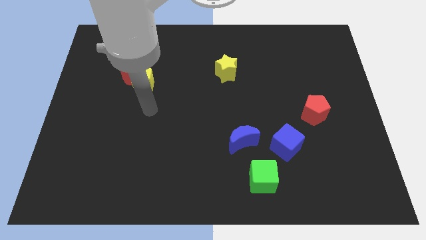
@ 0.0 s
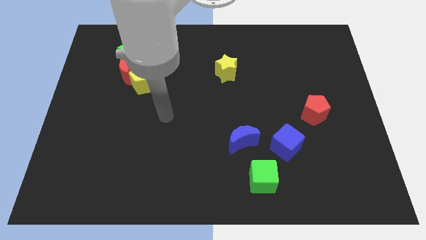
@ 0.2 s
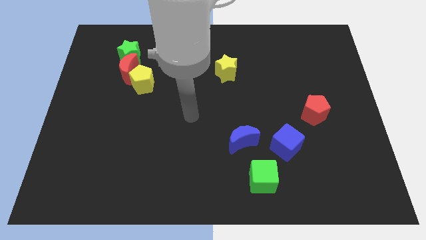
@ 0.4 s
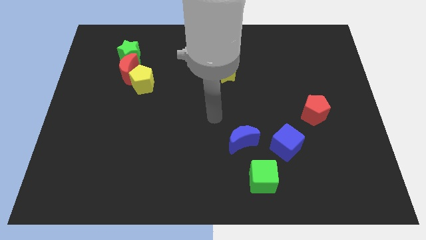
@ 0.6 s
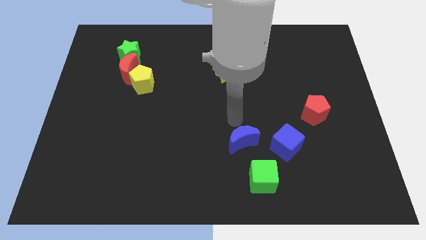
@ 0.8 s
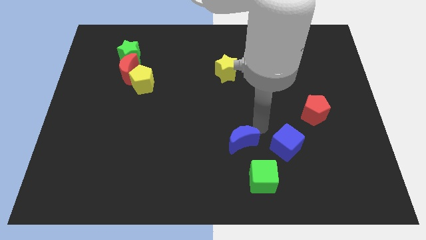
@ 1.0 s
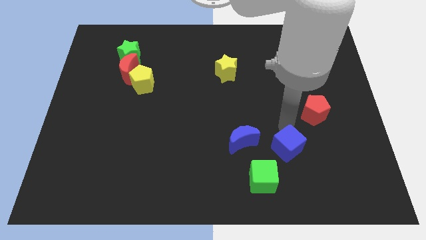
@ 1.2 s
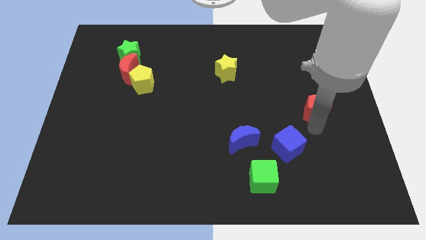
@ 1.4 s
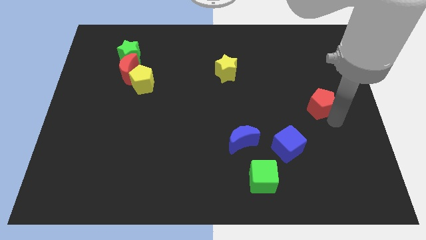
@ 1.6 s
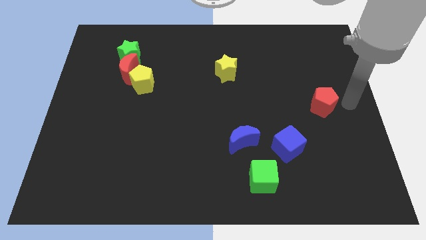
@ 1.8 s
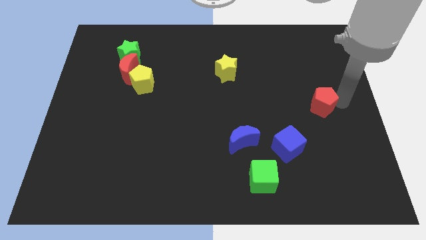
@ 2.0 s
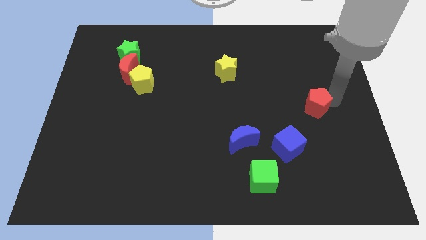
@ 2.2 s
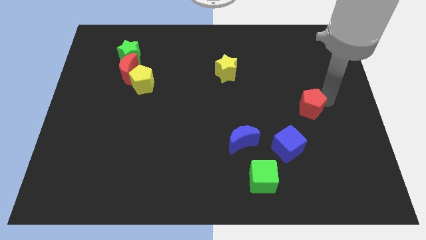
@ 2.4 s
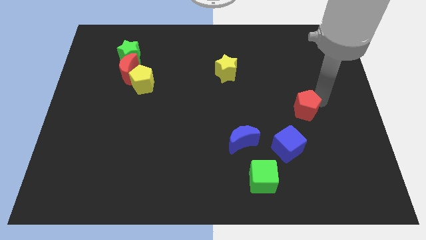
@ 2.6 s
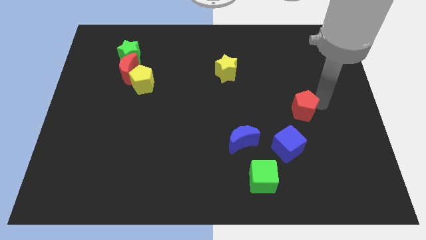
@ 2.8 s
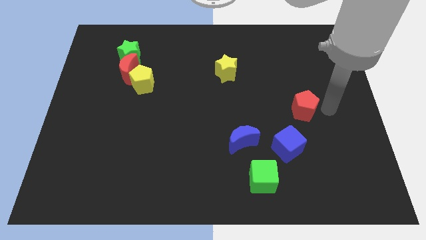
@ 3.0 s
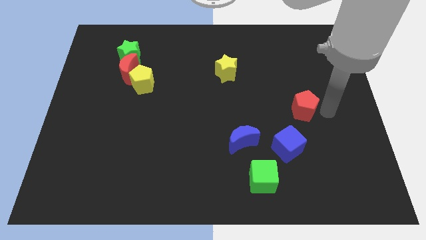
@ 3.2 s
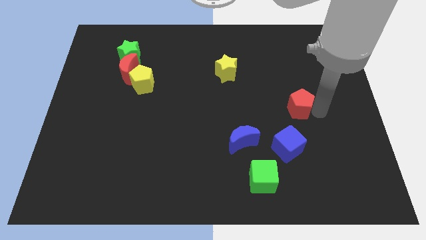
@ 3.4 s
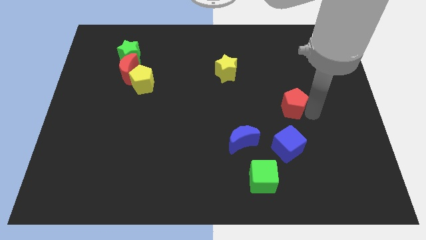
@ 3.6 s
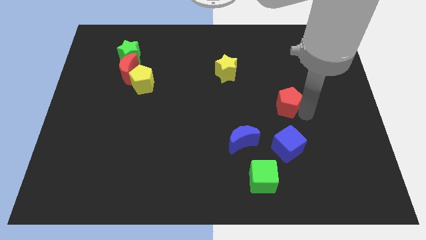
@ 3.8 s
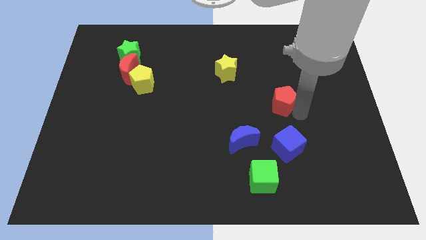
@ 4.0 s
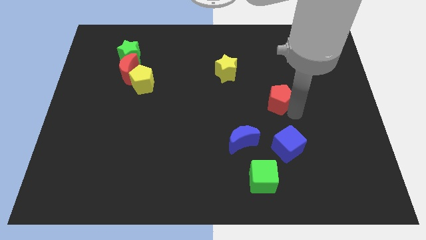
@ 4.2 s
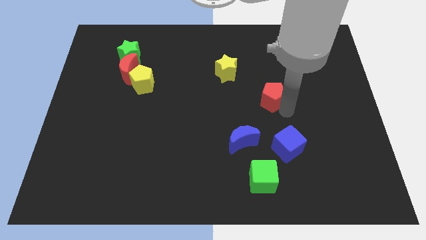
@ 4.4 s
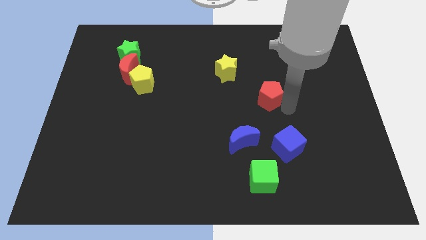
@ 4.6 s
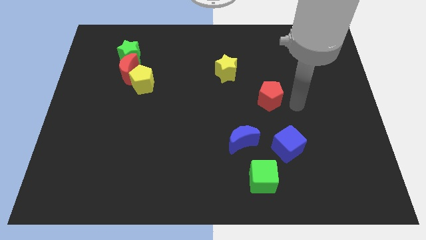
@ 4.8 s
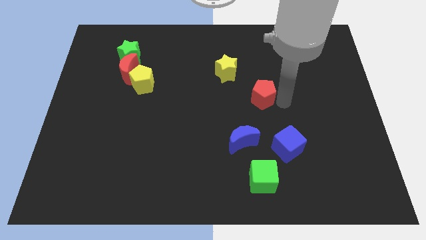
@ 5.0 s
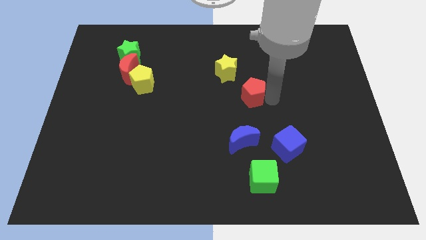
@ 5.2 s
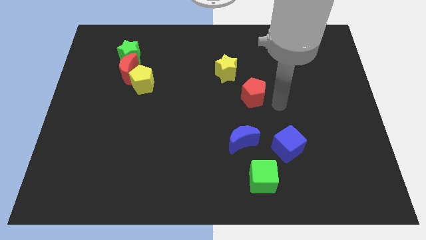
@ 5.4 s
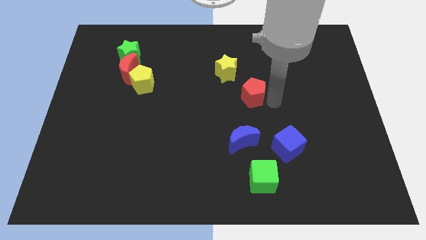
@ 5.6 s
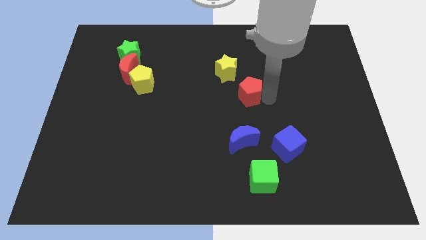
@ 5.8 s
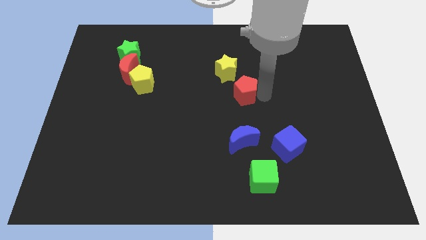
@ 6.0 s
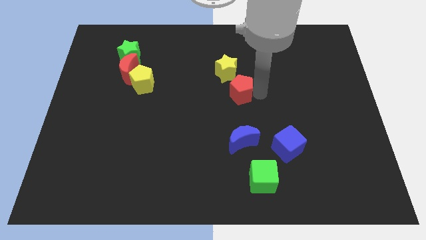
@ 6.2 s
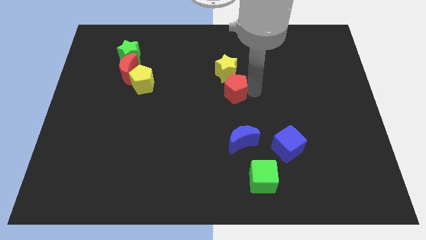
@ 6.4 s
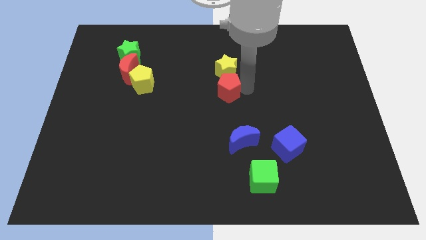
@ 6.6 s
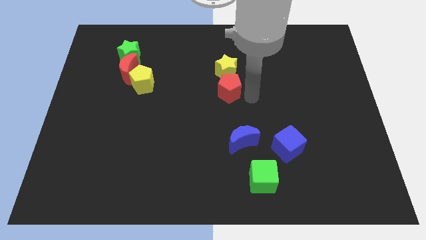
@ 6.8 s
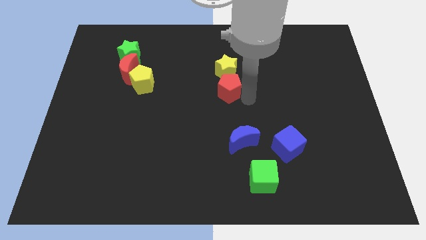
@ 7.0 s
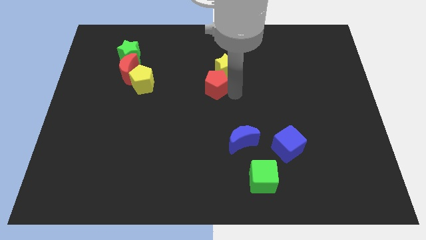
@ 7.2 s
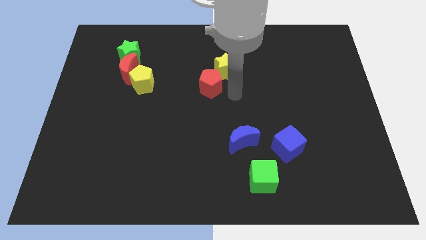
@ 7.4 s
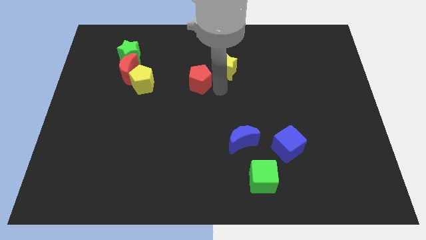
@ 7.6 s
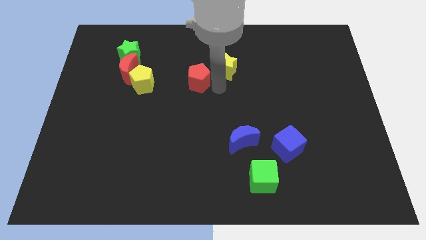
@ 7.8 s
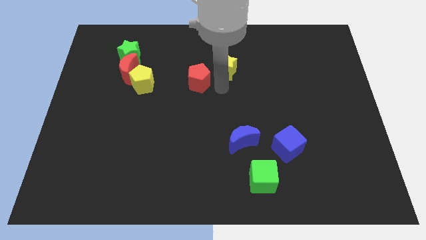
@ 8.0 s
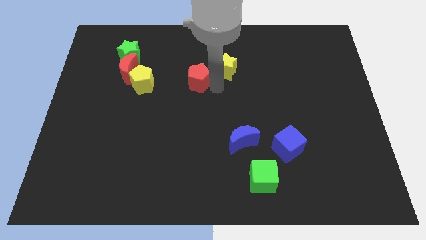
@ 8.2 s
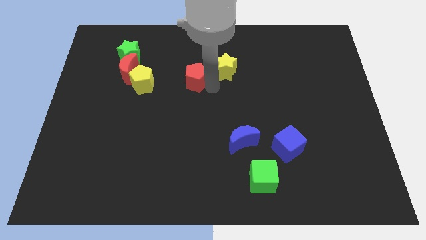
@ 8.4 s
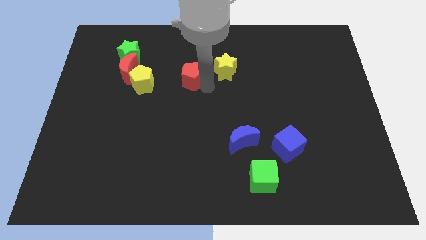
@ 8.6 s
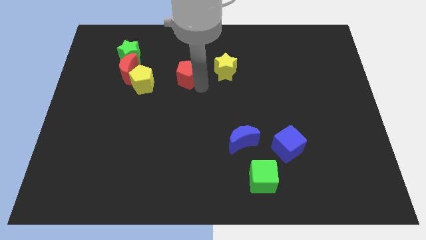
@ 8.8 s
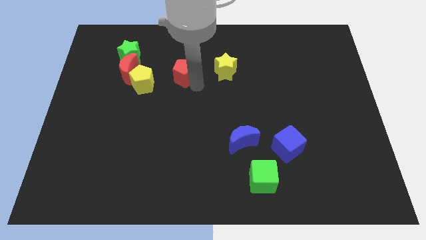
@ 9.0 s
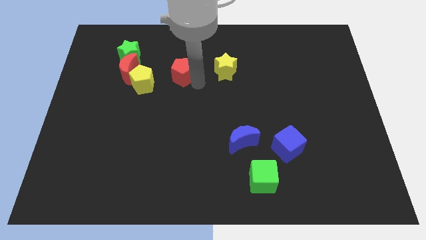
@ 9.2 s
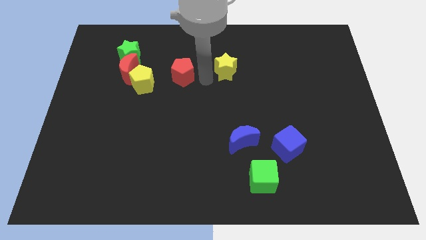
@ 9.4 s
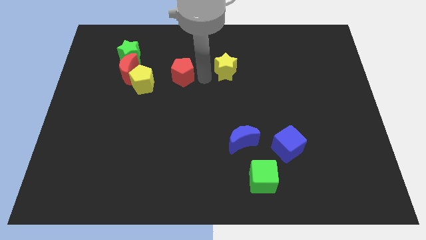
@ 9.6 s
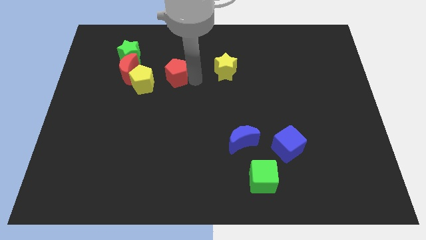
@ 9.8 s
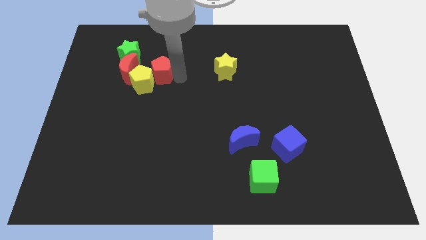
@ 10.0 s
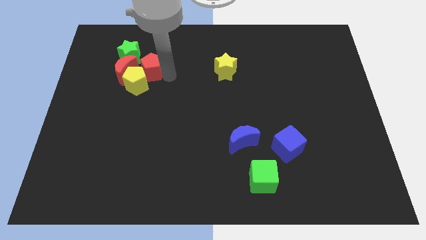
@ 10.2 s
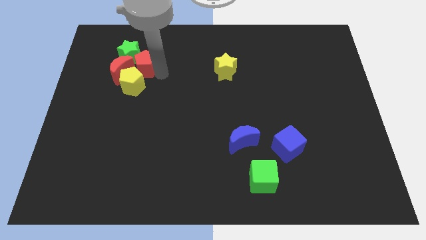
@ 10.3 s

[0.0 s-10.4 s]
move the red pentagon towards the green star

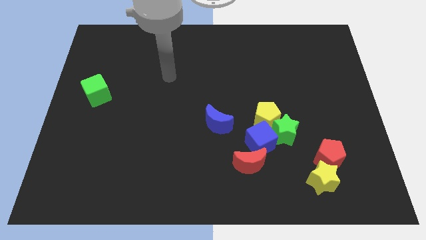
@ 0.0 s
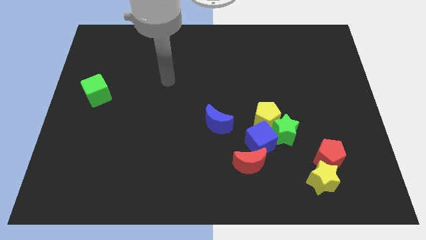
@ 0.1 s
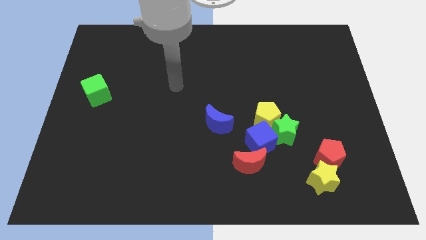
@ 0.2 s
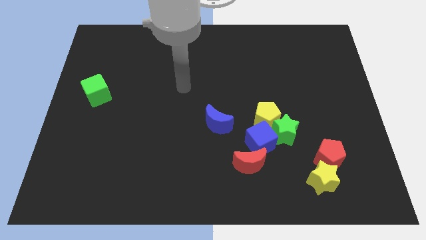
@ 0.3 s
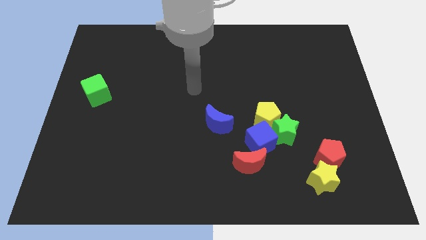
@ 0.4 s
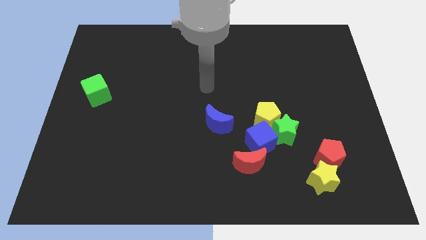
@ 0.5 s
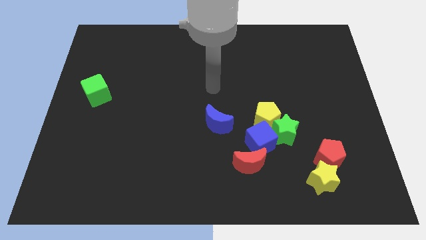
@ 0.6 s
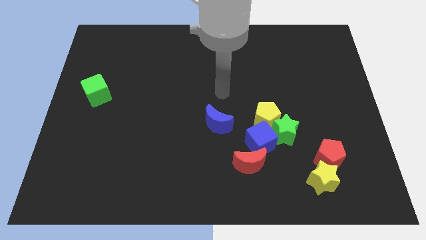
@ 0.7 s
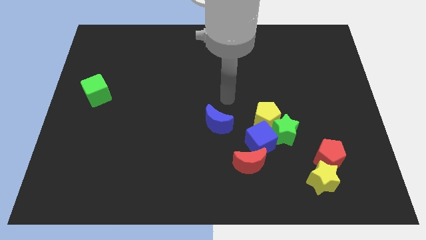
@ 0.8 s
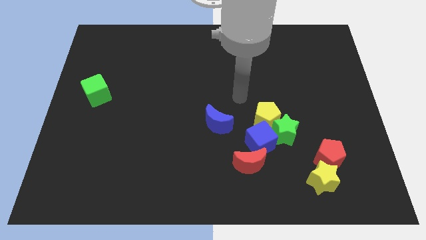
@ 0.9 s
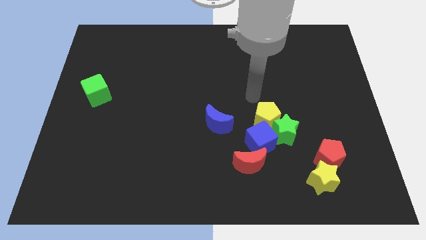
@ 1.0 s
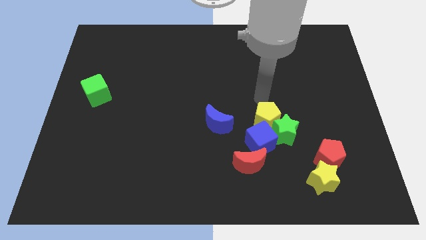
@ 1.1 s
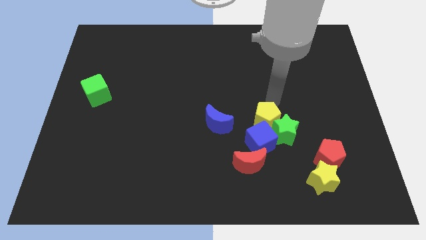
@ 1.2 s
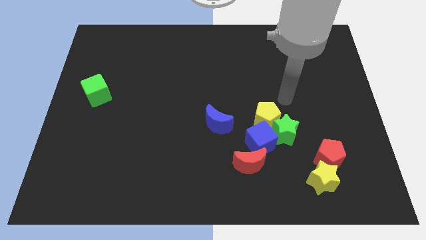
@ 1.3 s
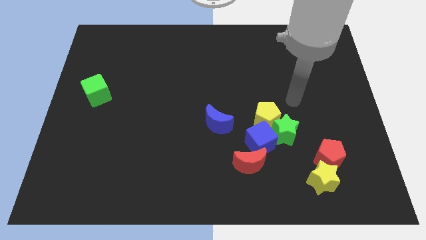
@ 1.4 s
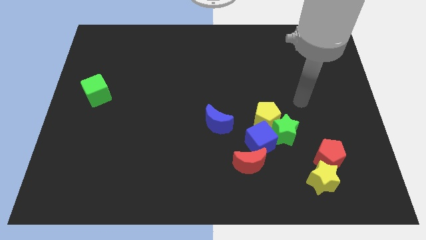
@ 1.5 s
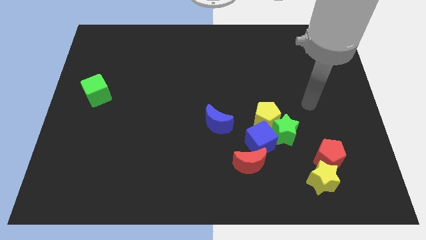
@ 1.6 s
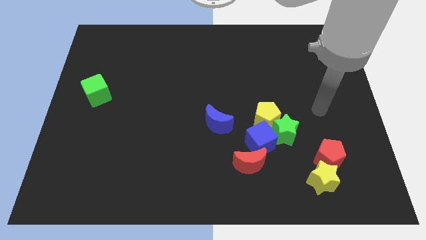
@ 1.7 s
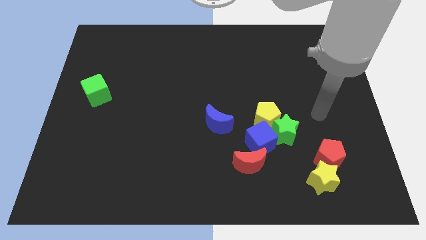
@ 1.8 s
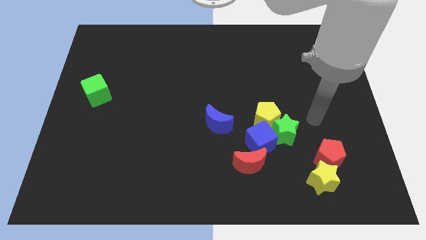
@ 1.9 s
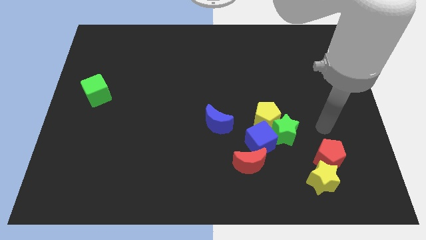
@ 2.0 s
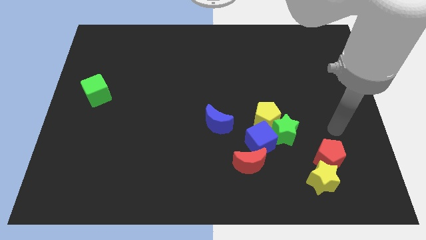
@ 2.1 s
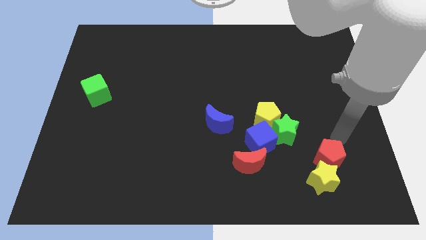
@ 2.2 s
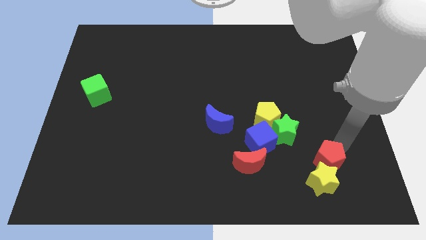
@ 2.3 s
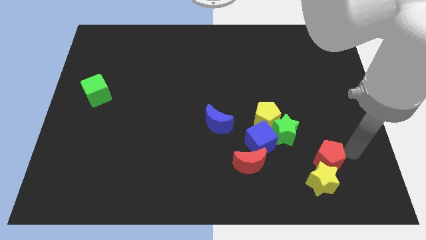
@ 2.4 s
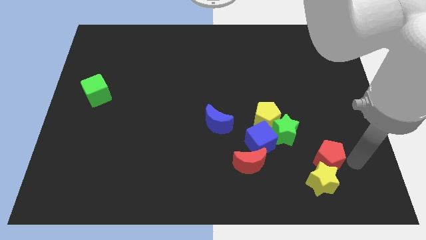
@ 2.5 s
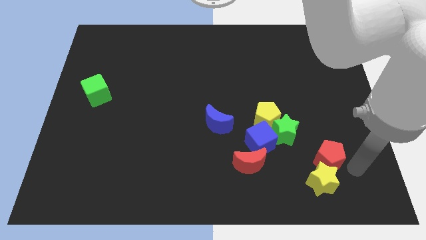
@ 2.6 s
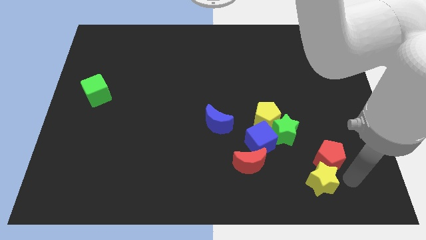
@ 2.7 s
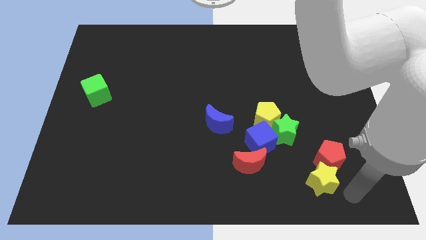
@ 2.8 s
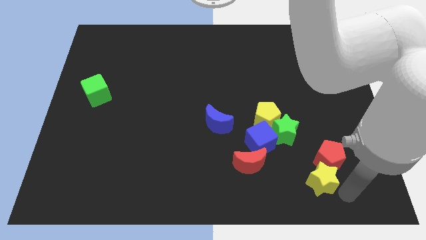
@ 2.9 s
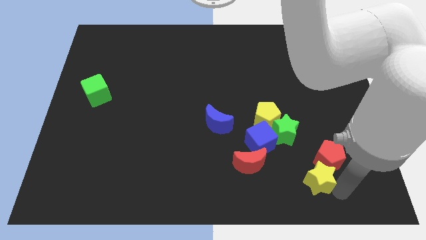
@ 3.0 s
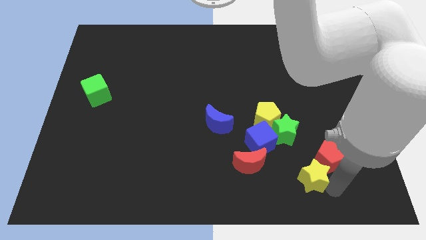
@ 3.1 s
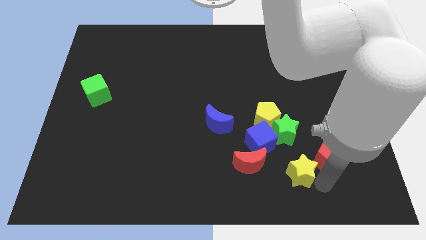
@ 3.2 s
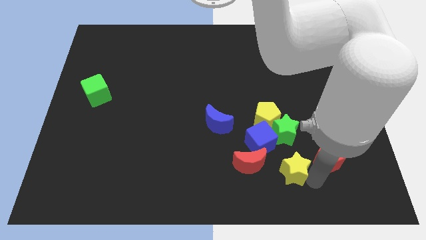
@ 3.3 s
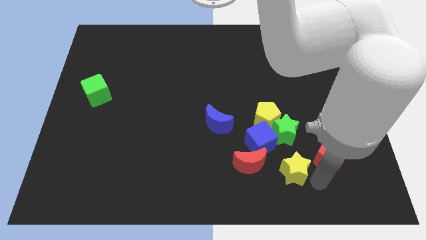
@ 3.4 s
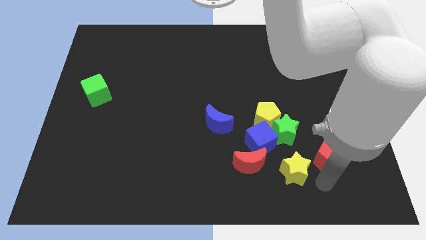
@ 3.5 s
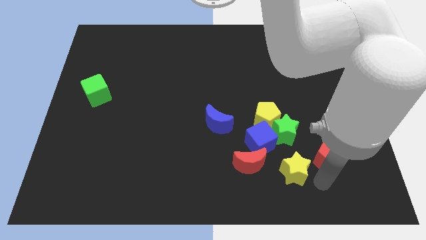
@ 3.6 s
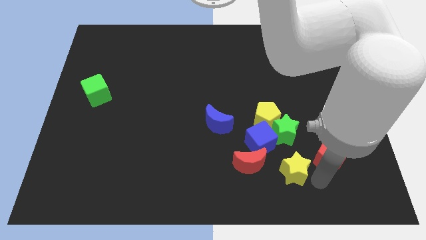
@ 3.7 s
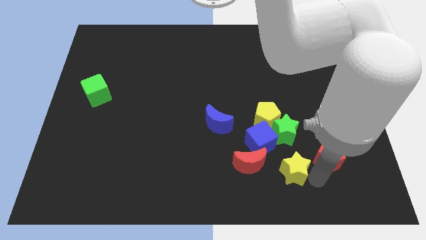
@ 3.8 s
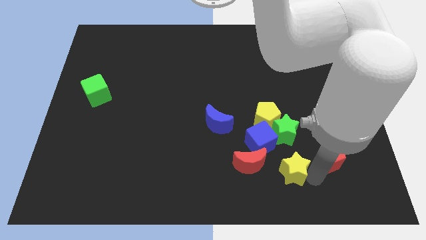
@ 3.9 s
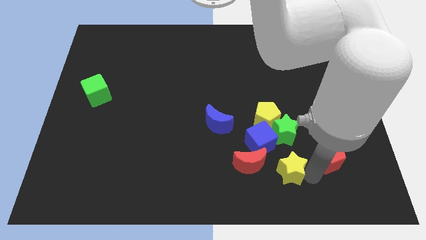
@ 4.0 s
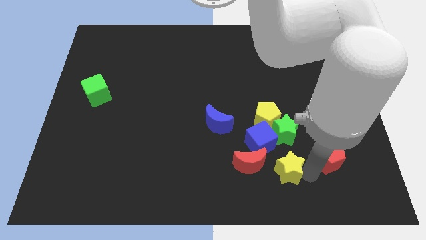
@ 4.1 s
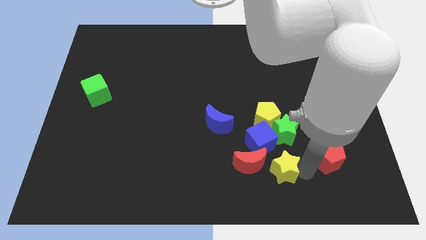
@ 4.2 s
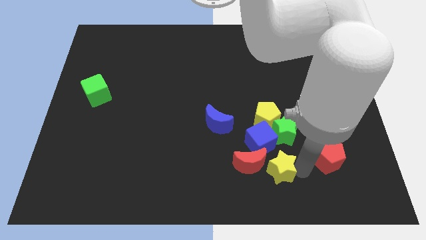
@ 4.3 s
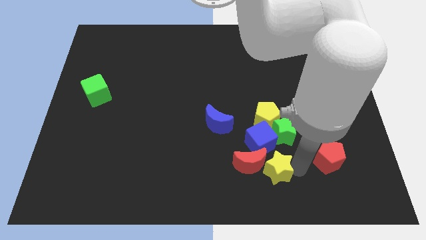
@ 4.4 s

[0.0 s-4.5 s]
move the yellow star towards the red moon
